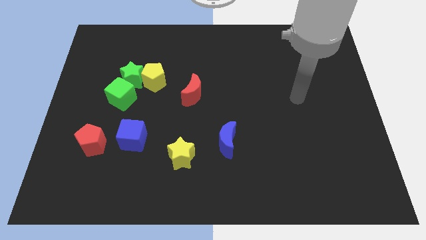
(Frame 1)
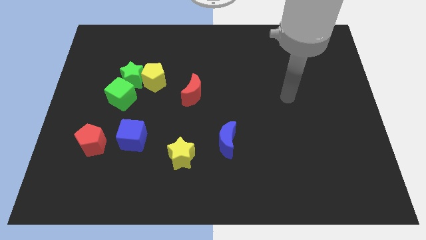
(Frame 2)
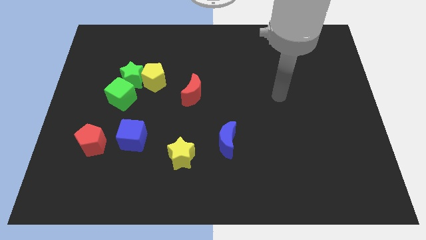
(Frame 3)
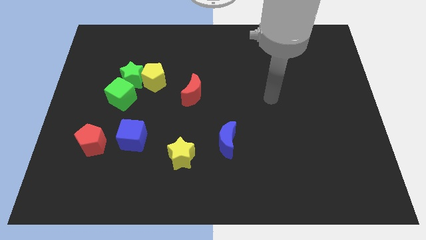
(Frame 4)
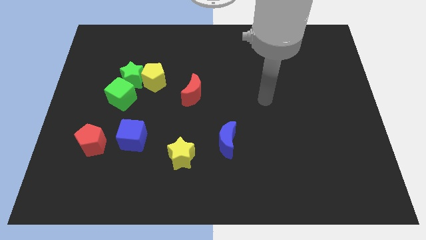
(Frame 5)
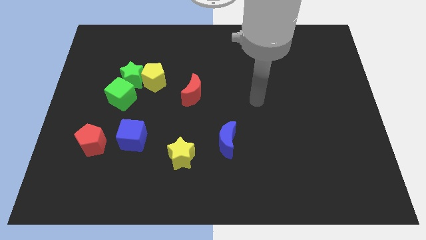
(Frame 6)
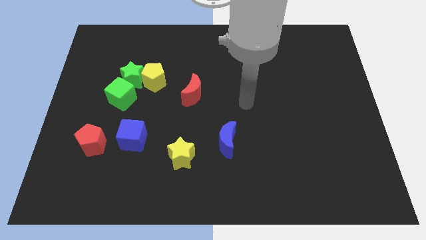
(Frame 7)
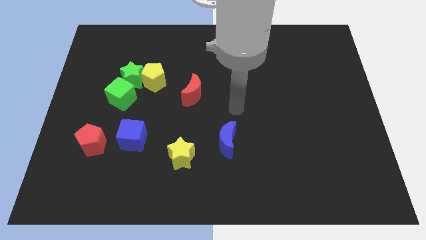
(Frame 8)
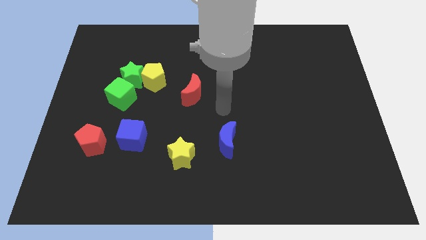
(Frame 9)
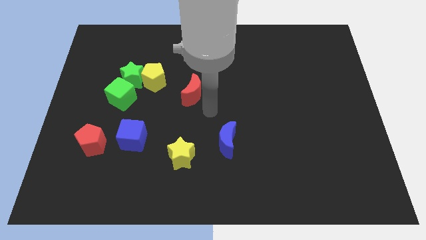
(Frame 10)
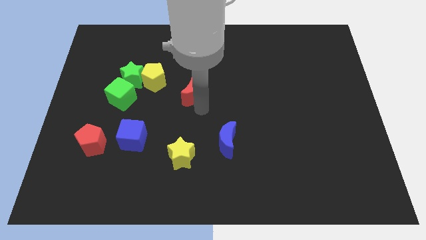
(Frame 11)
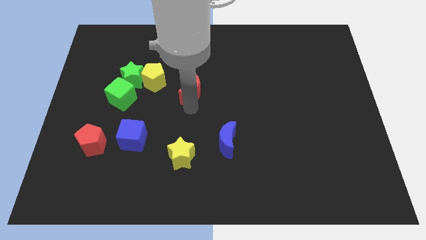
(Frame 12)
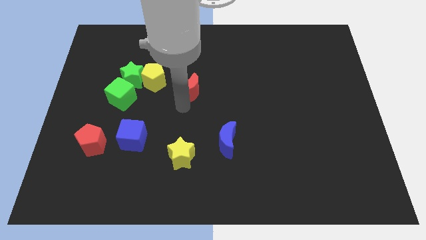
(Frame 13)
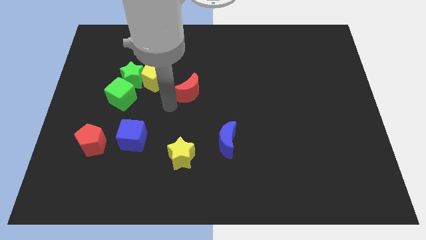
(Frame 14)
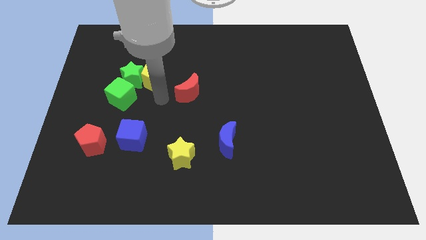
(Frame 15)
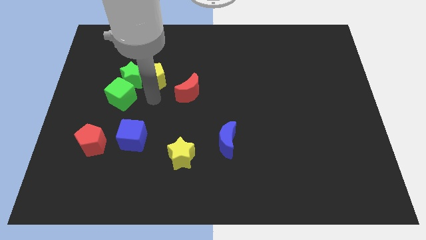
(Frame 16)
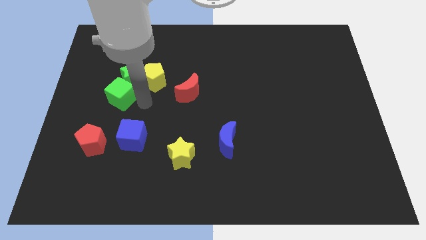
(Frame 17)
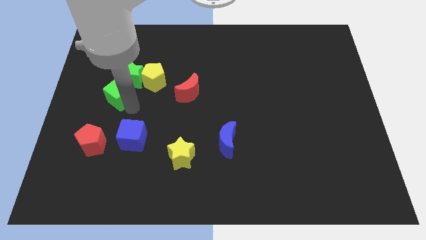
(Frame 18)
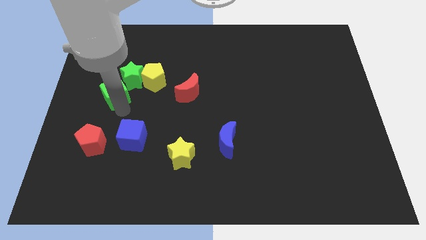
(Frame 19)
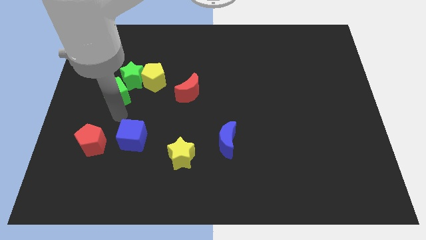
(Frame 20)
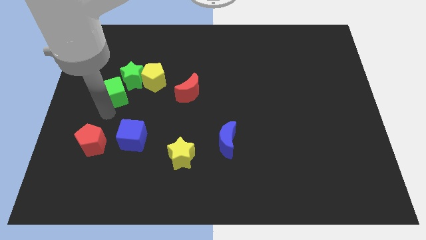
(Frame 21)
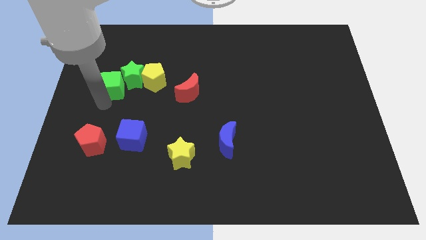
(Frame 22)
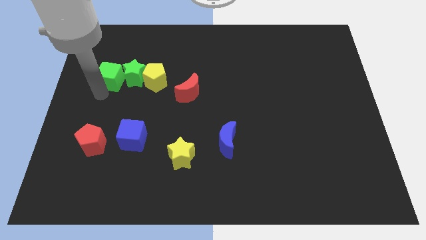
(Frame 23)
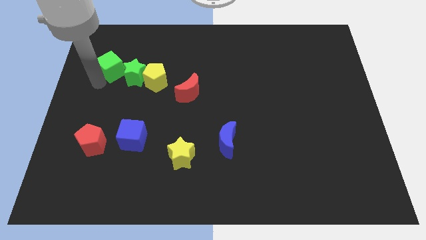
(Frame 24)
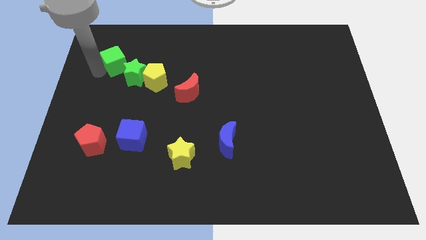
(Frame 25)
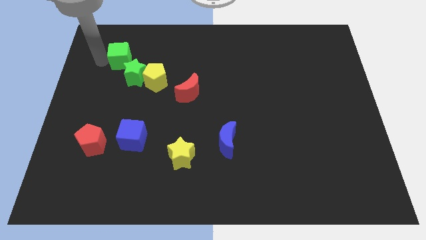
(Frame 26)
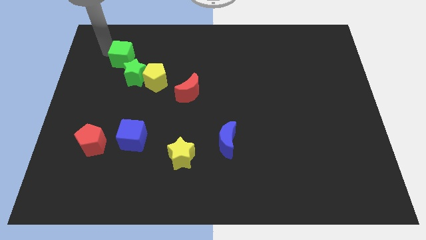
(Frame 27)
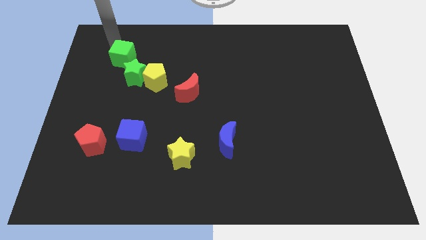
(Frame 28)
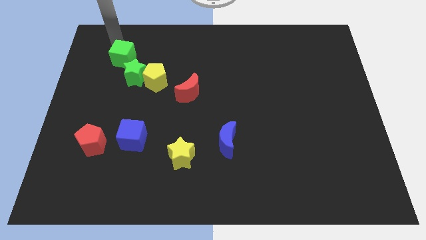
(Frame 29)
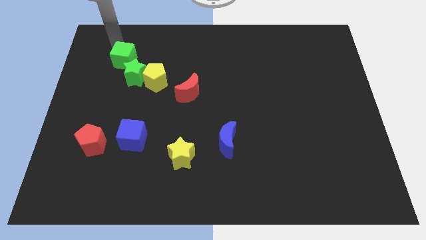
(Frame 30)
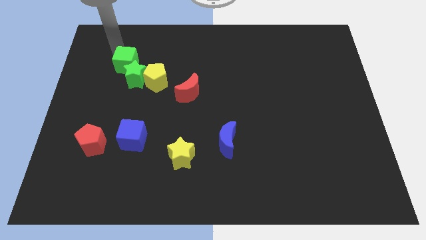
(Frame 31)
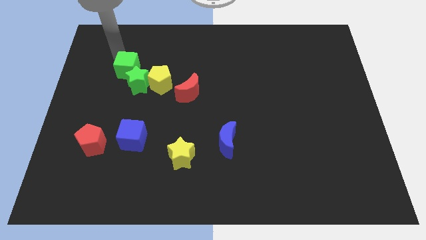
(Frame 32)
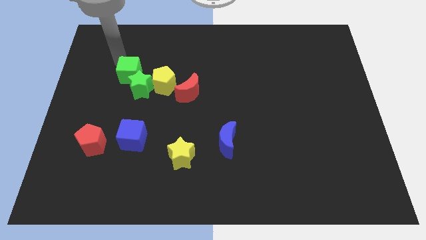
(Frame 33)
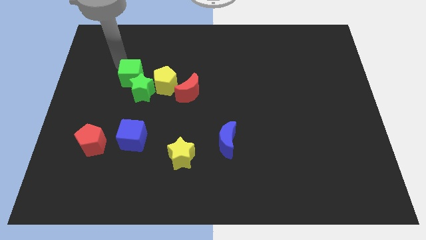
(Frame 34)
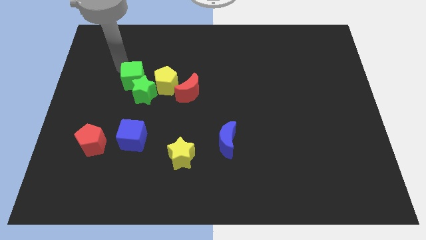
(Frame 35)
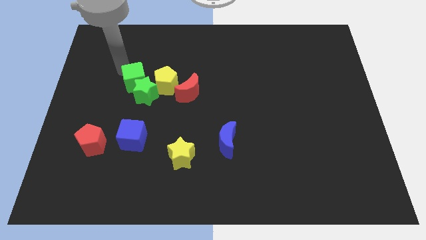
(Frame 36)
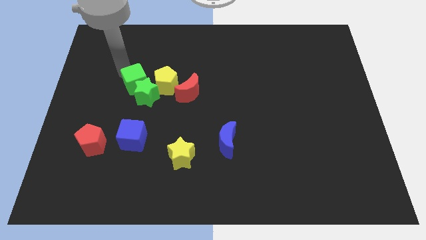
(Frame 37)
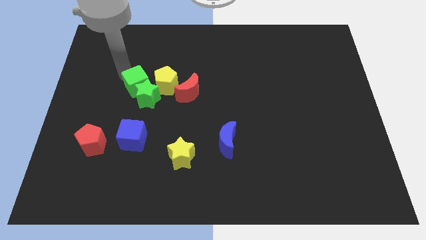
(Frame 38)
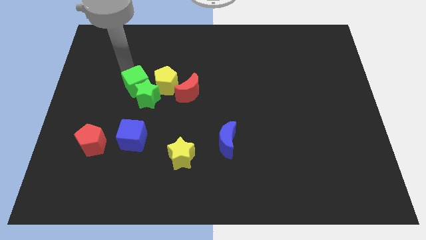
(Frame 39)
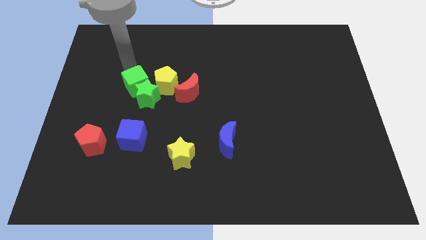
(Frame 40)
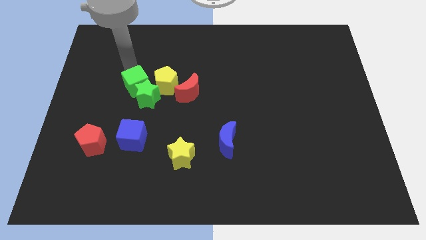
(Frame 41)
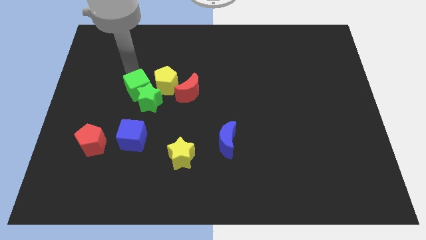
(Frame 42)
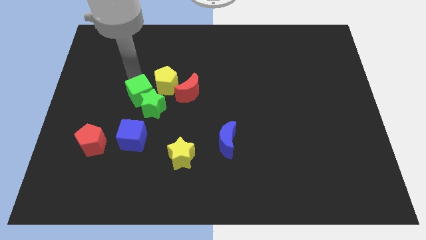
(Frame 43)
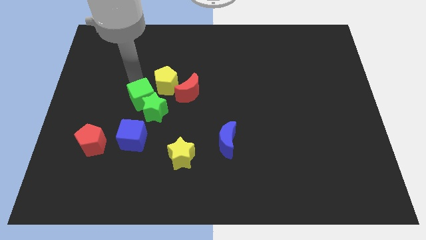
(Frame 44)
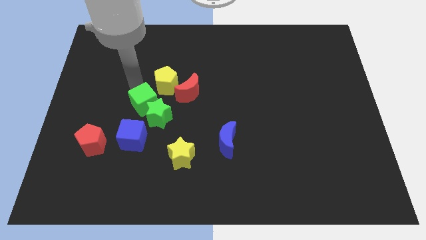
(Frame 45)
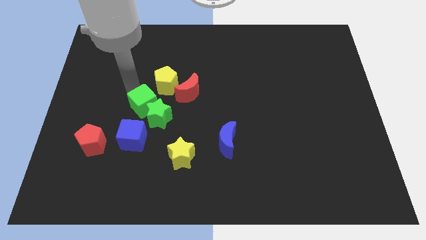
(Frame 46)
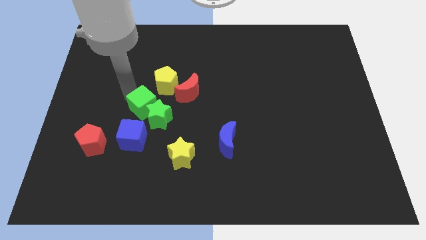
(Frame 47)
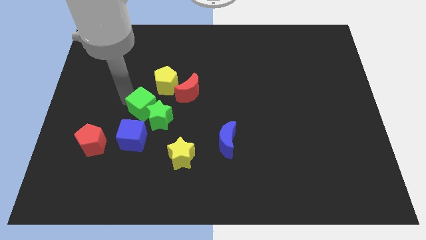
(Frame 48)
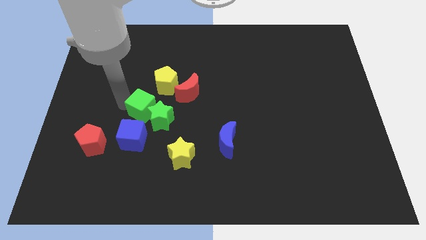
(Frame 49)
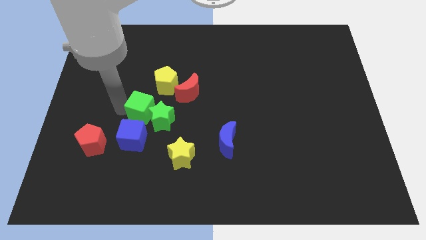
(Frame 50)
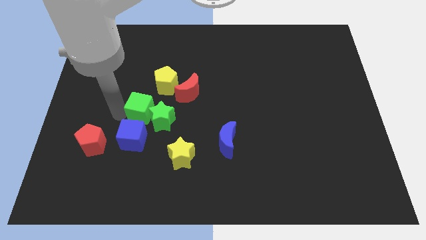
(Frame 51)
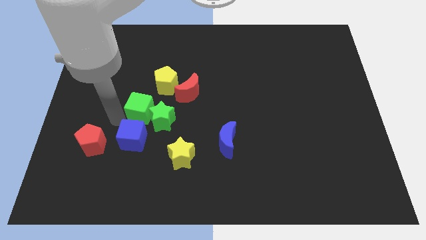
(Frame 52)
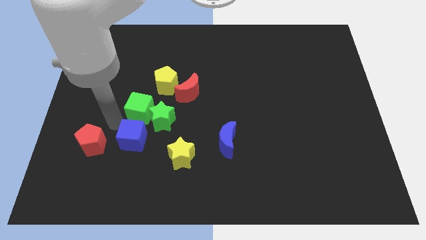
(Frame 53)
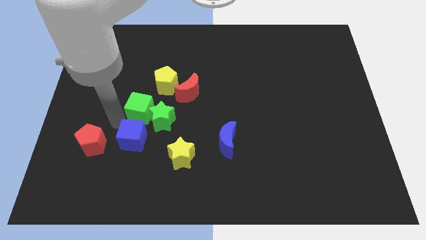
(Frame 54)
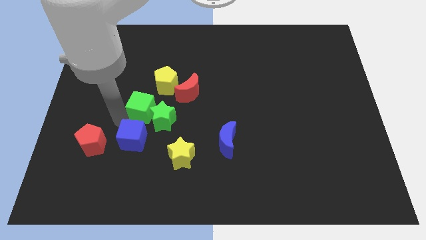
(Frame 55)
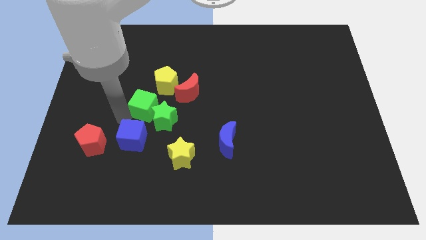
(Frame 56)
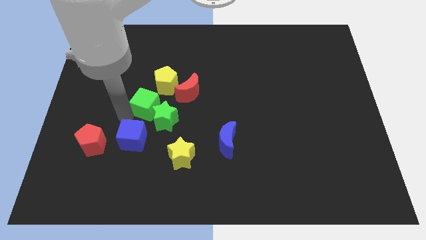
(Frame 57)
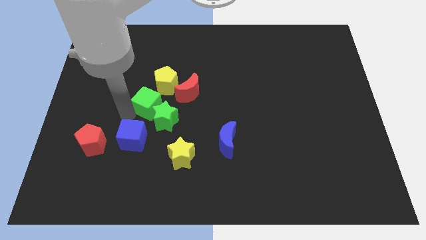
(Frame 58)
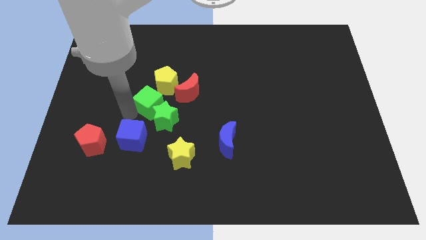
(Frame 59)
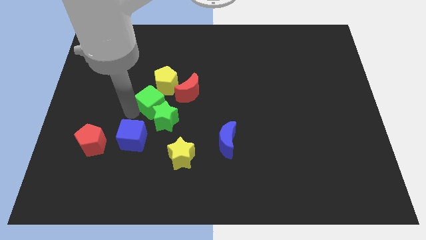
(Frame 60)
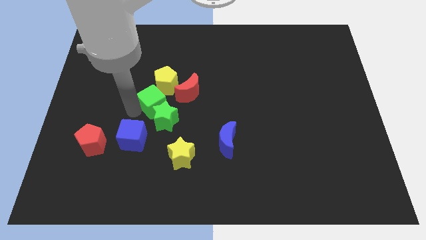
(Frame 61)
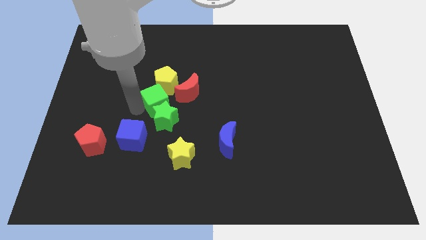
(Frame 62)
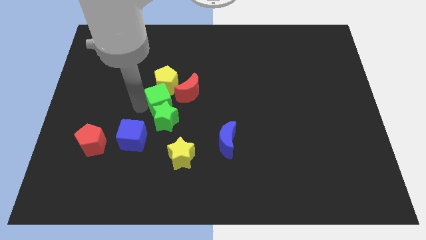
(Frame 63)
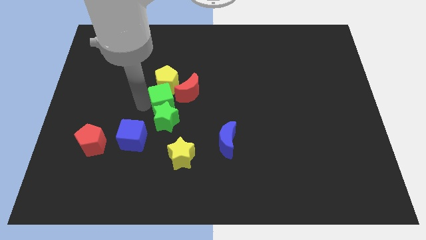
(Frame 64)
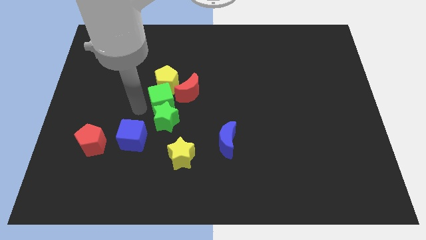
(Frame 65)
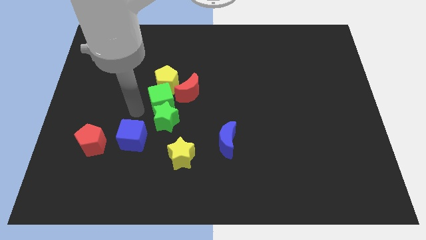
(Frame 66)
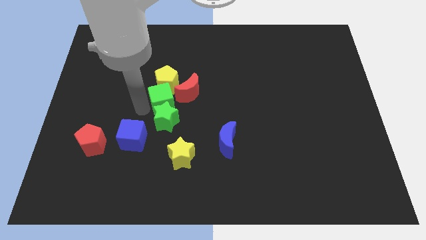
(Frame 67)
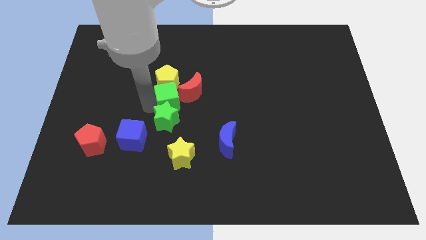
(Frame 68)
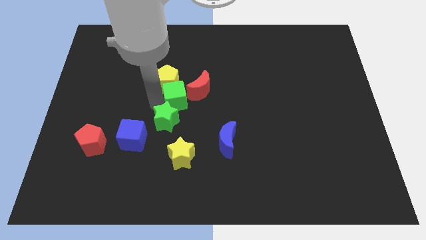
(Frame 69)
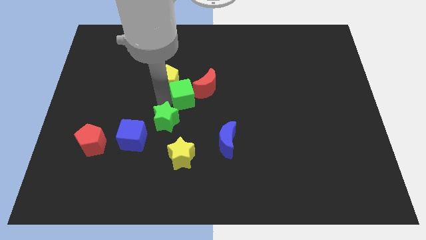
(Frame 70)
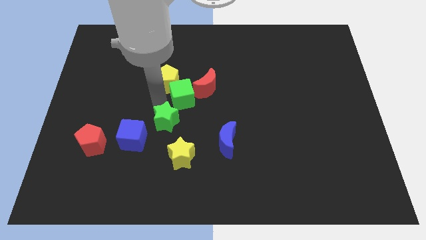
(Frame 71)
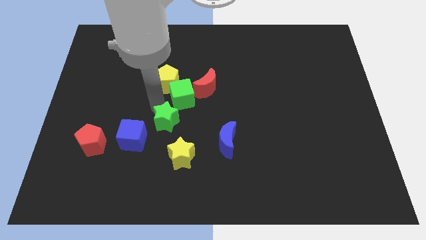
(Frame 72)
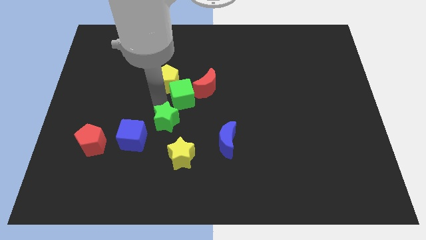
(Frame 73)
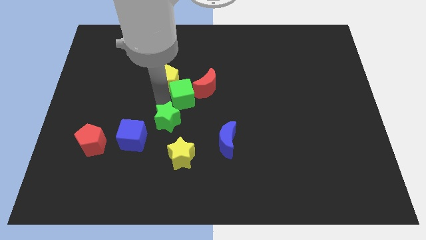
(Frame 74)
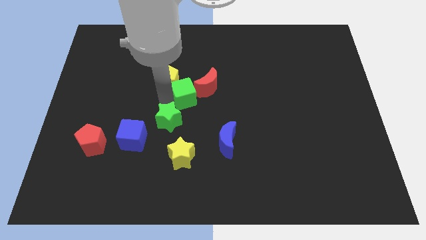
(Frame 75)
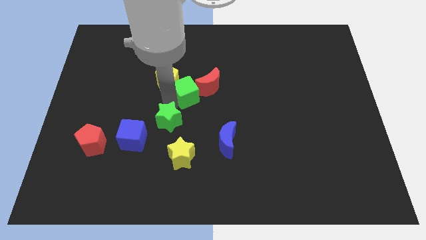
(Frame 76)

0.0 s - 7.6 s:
move the green cube to the red moon
